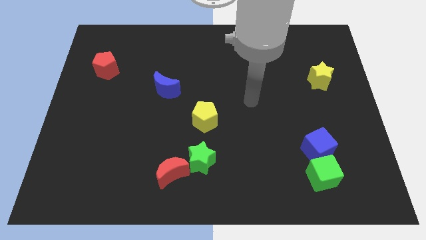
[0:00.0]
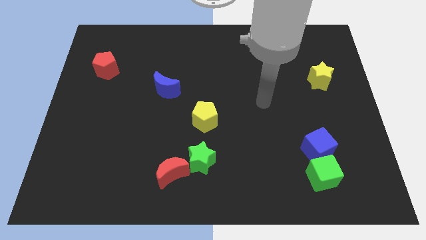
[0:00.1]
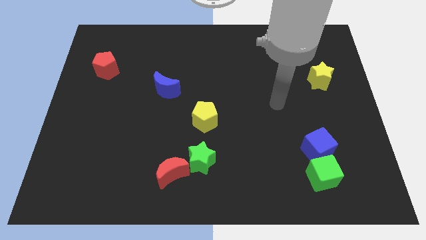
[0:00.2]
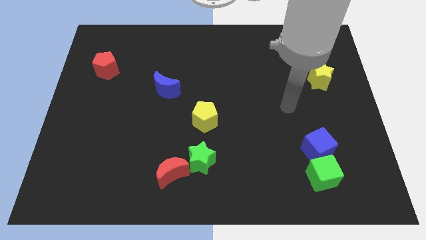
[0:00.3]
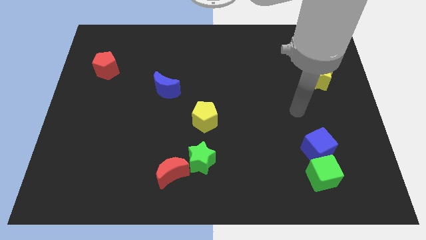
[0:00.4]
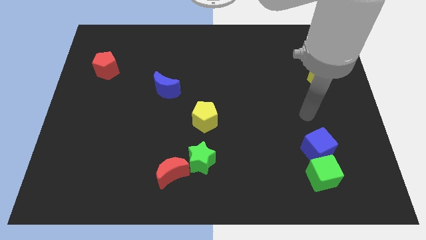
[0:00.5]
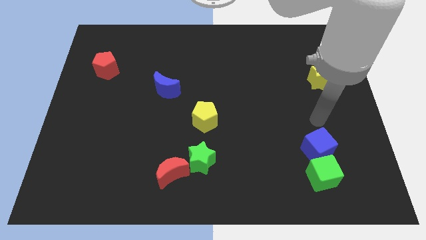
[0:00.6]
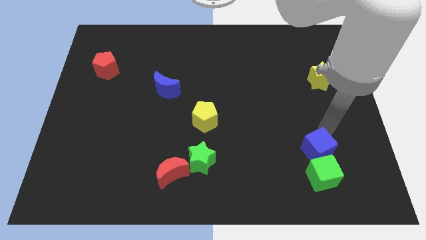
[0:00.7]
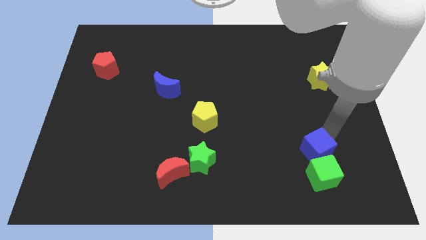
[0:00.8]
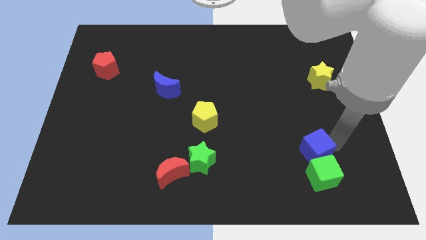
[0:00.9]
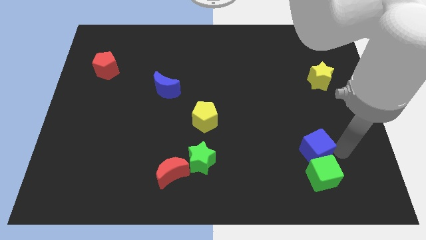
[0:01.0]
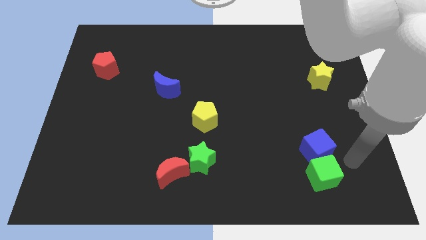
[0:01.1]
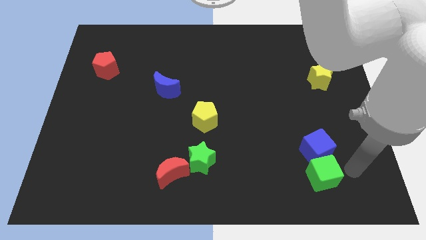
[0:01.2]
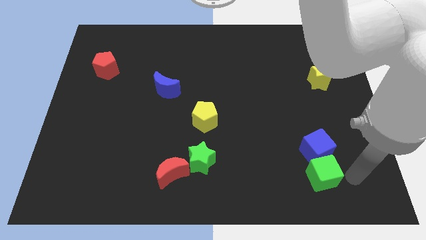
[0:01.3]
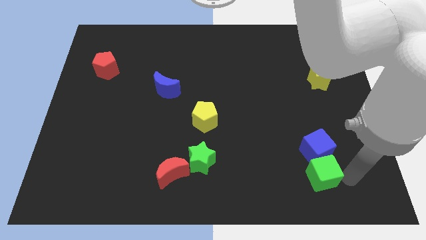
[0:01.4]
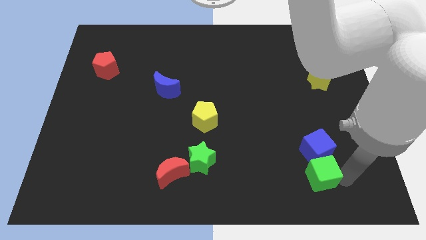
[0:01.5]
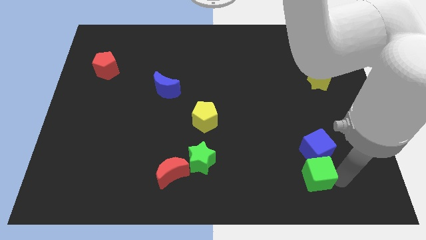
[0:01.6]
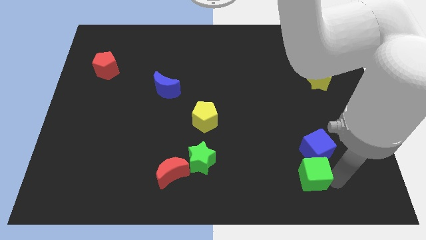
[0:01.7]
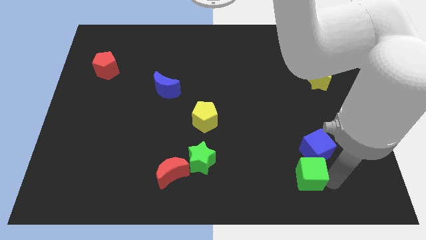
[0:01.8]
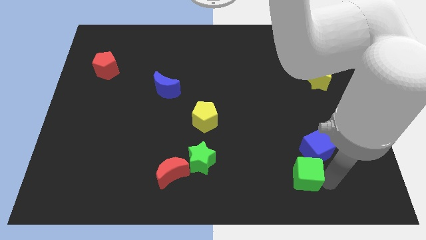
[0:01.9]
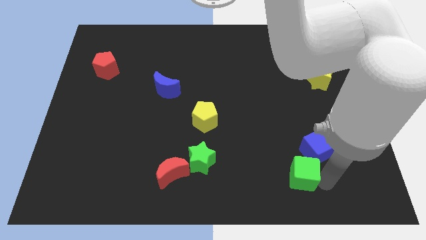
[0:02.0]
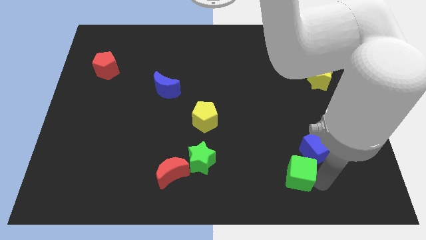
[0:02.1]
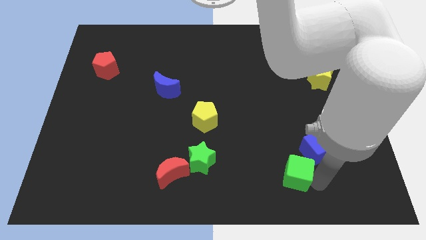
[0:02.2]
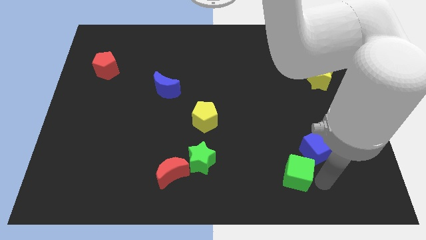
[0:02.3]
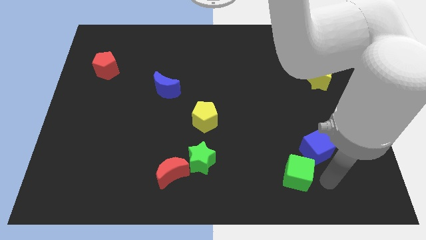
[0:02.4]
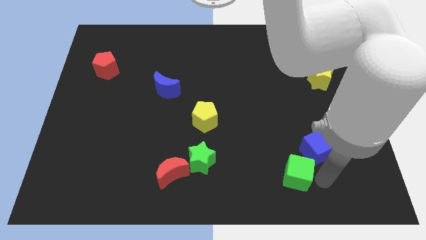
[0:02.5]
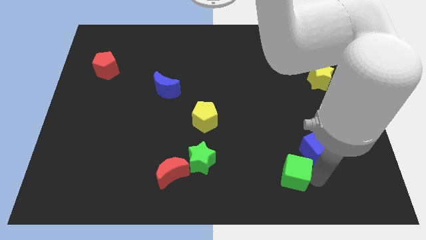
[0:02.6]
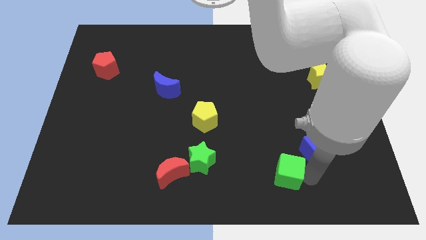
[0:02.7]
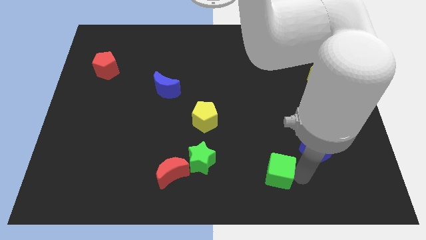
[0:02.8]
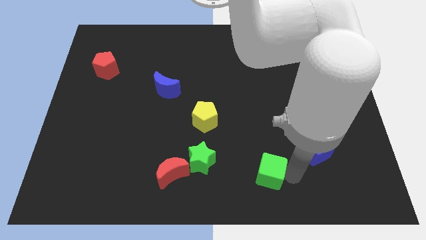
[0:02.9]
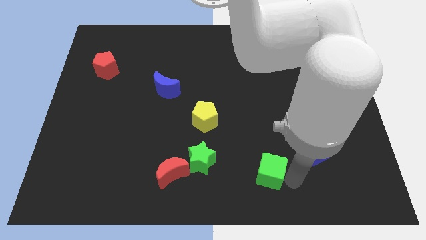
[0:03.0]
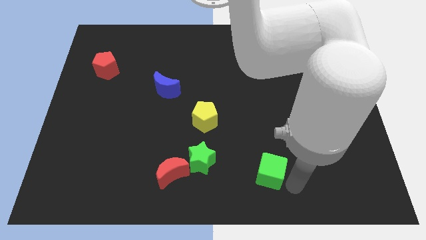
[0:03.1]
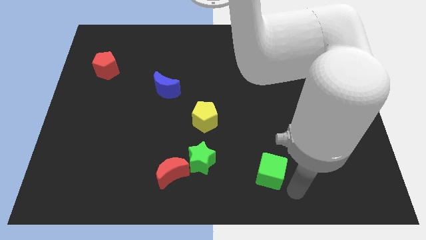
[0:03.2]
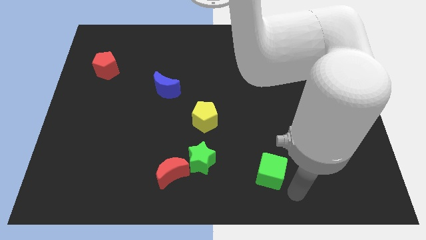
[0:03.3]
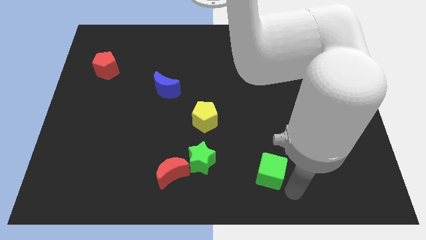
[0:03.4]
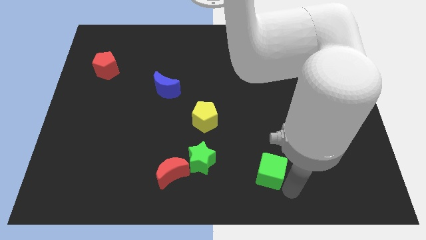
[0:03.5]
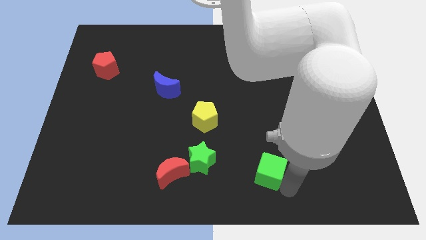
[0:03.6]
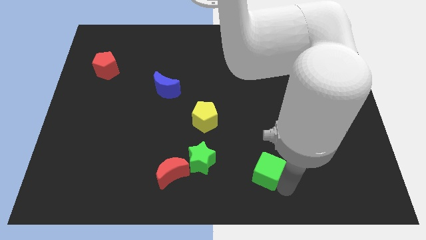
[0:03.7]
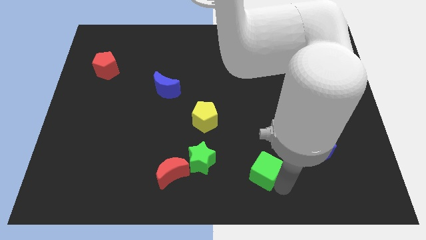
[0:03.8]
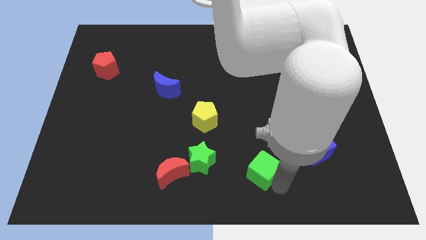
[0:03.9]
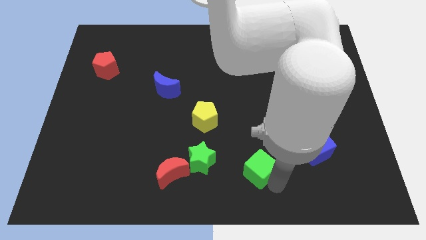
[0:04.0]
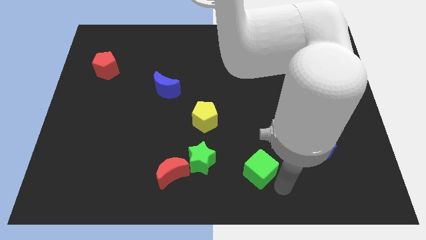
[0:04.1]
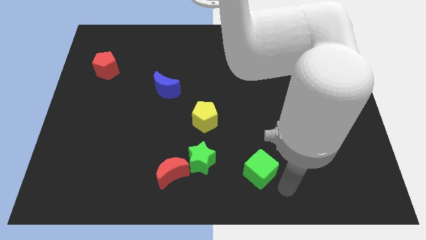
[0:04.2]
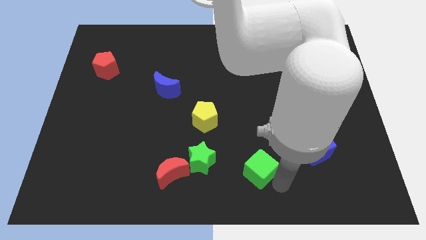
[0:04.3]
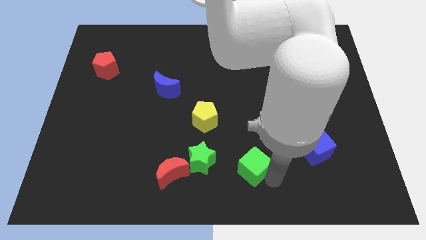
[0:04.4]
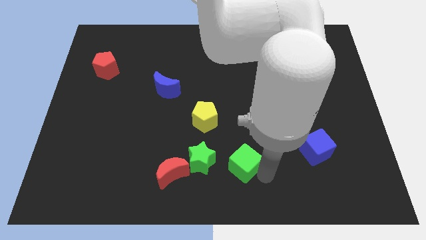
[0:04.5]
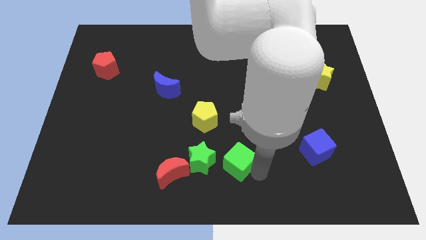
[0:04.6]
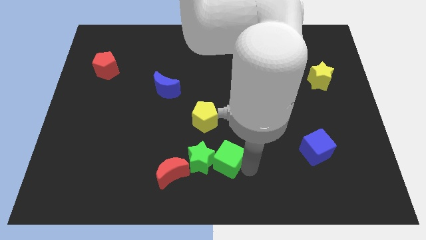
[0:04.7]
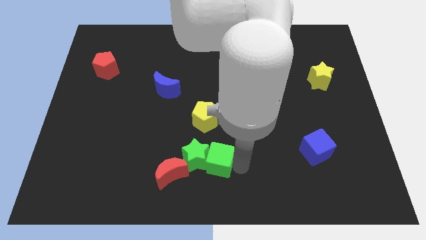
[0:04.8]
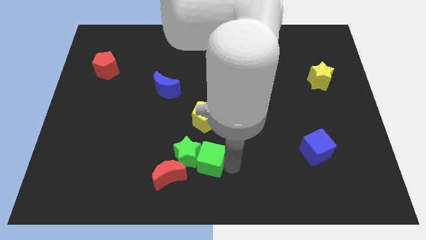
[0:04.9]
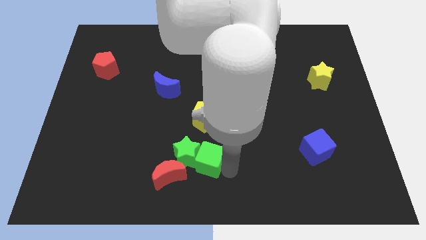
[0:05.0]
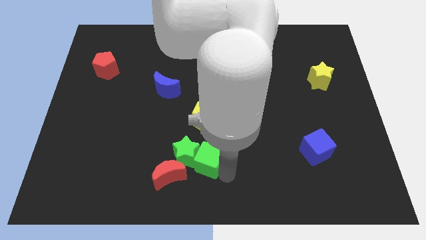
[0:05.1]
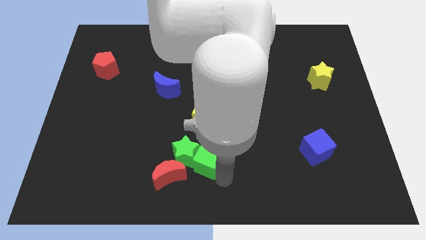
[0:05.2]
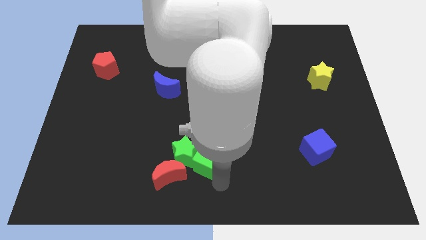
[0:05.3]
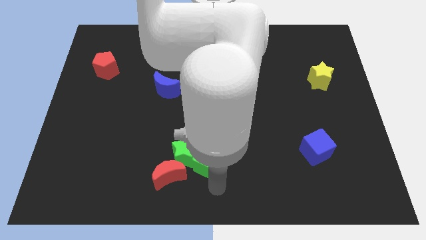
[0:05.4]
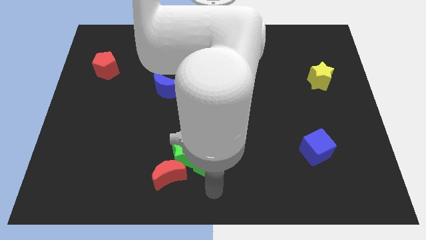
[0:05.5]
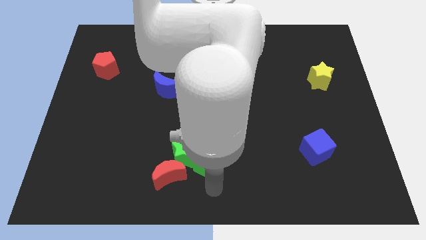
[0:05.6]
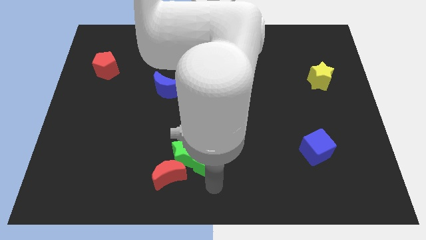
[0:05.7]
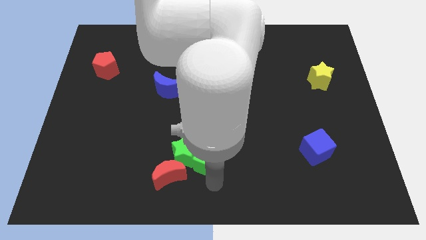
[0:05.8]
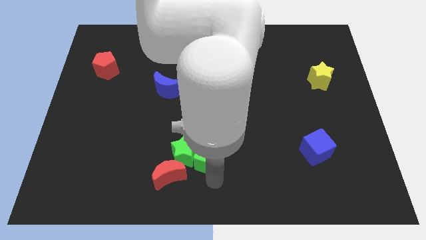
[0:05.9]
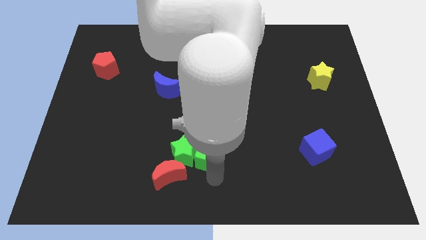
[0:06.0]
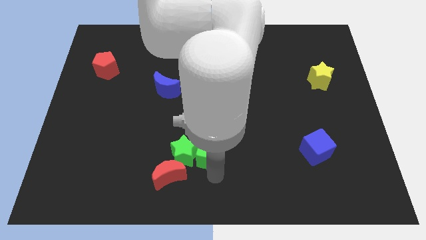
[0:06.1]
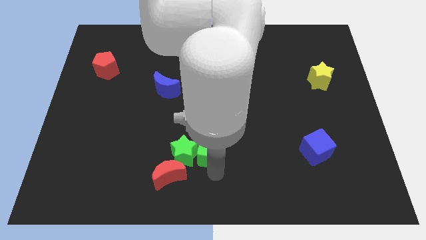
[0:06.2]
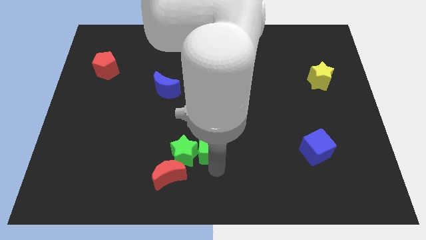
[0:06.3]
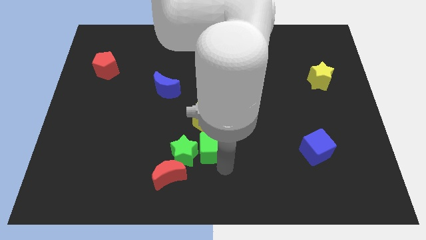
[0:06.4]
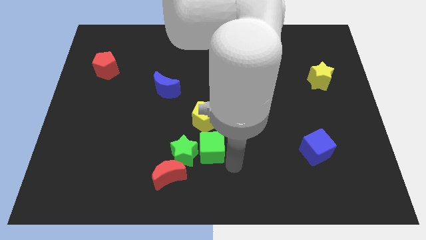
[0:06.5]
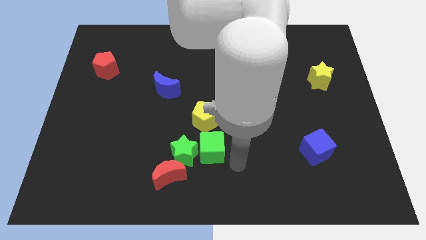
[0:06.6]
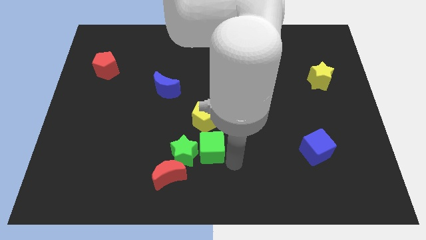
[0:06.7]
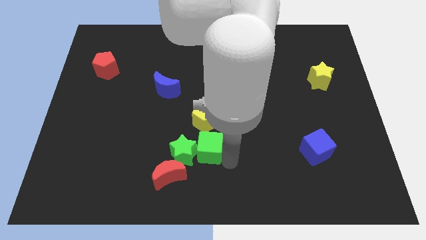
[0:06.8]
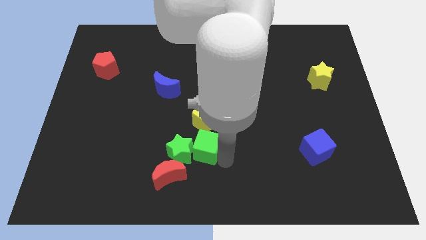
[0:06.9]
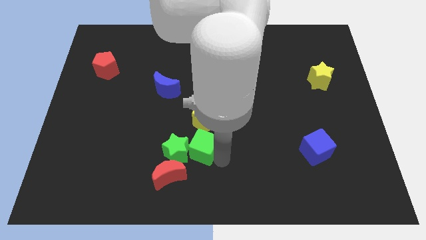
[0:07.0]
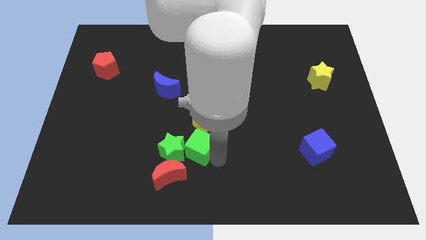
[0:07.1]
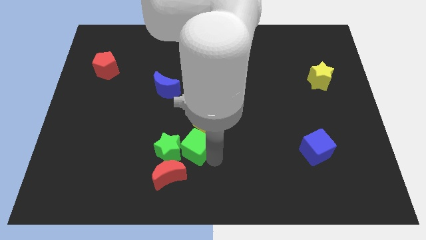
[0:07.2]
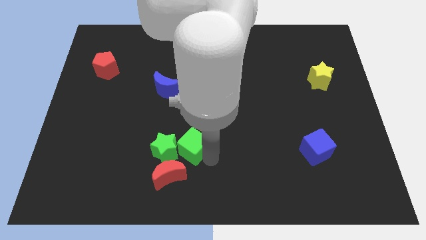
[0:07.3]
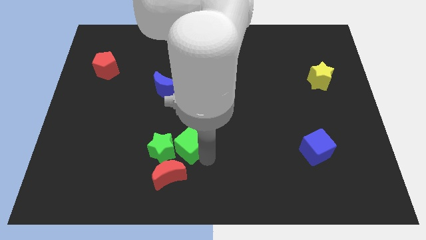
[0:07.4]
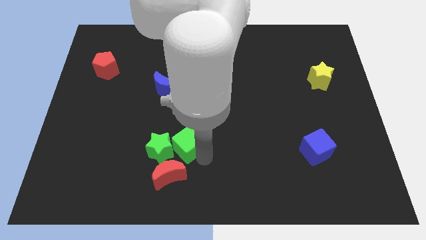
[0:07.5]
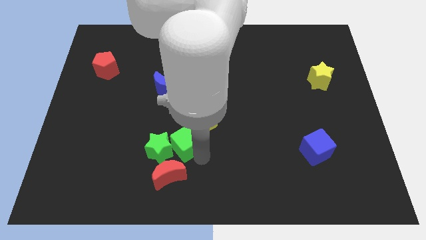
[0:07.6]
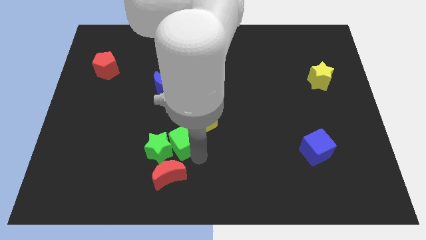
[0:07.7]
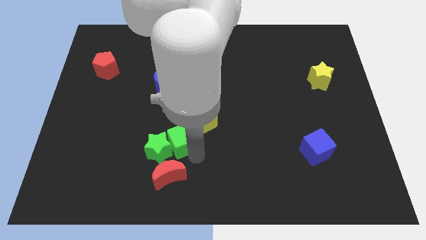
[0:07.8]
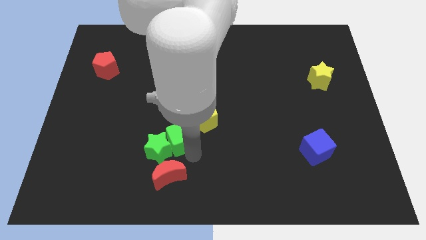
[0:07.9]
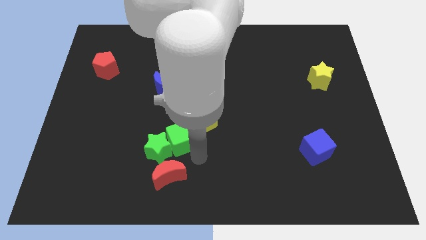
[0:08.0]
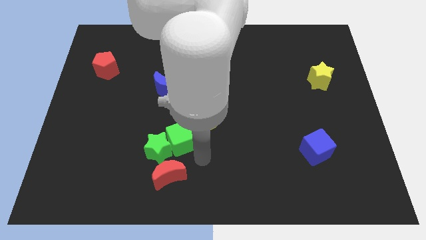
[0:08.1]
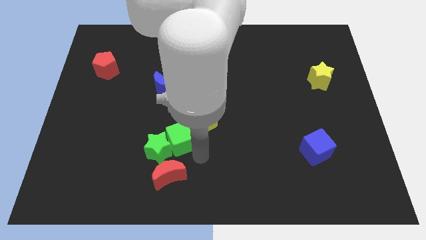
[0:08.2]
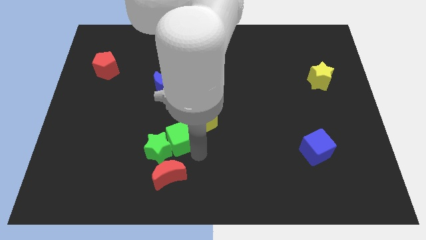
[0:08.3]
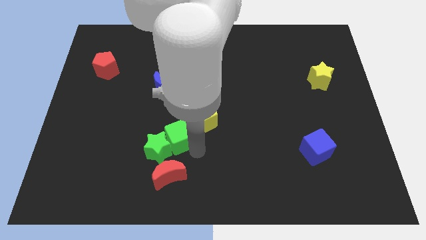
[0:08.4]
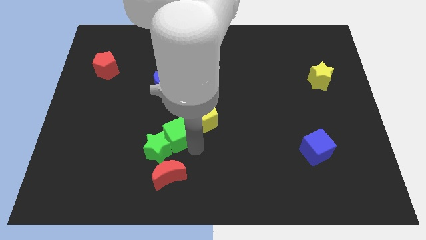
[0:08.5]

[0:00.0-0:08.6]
slide the green cube below the blue moon

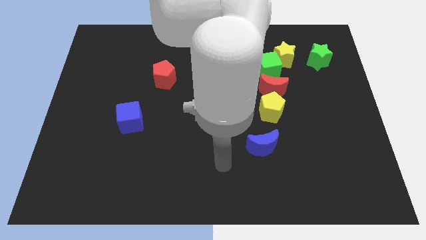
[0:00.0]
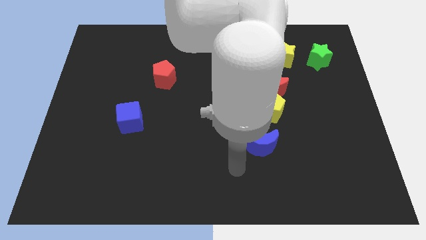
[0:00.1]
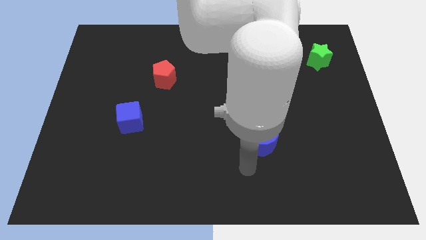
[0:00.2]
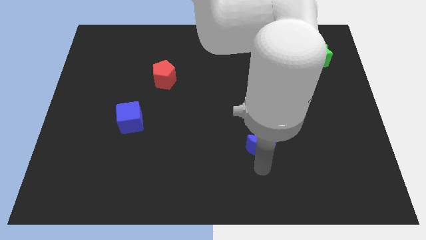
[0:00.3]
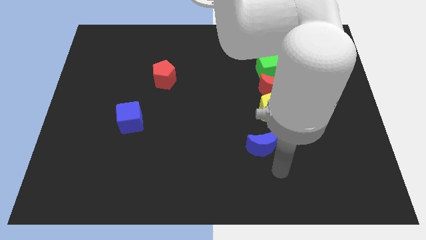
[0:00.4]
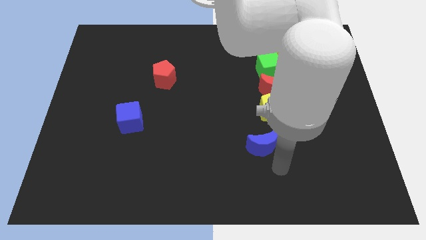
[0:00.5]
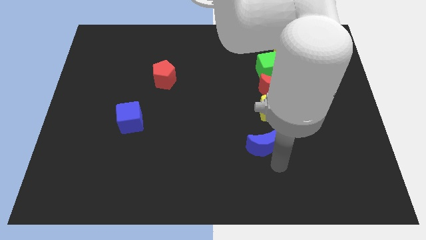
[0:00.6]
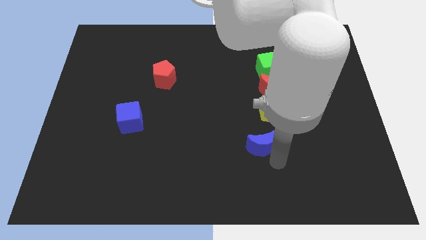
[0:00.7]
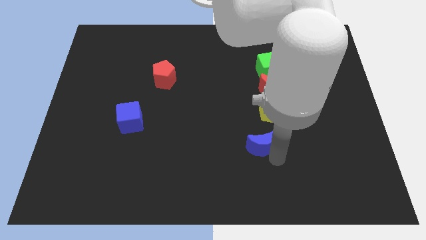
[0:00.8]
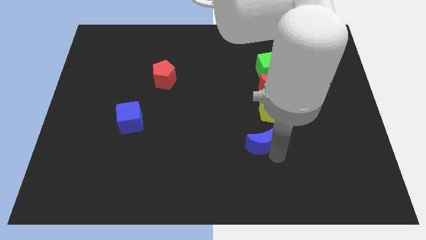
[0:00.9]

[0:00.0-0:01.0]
push the blue moon to the bottom left side of the yellow pentagon
